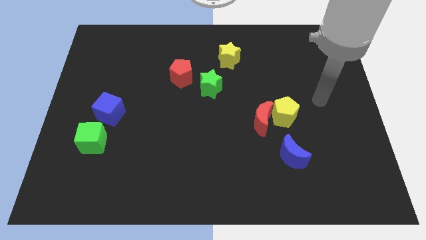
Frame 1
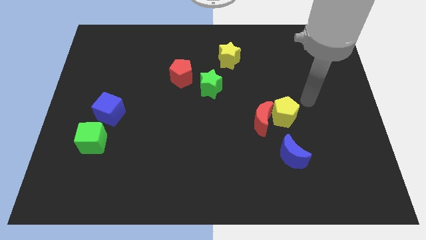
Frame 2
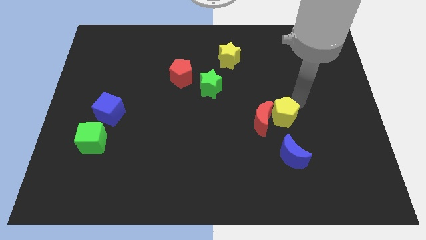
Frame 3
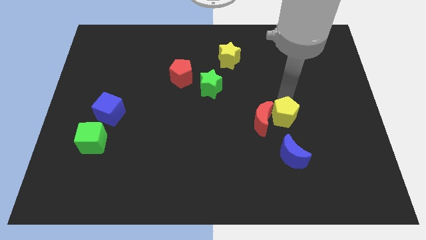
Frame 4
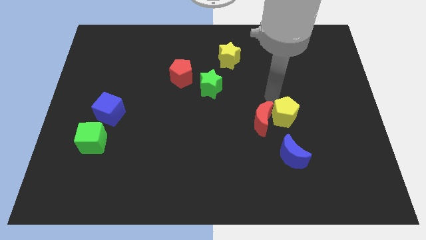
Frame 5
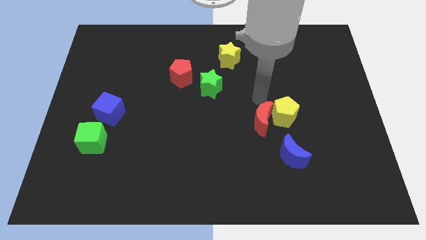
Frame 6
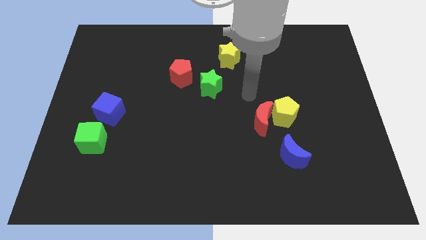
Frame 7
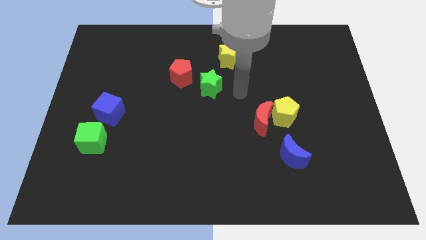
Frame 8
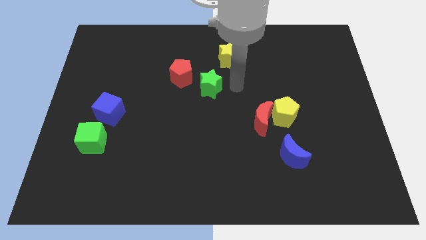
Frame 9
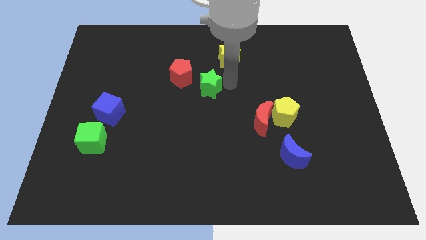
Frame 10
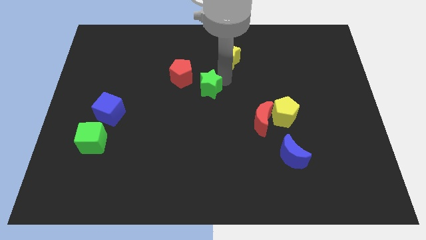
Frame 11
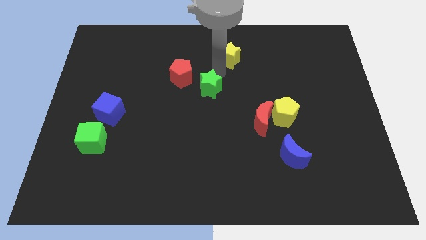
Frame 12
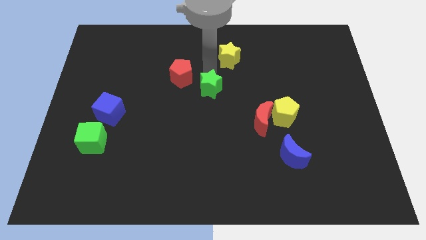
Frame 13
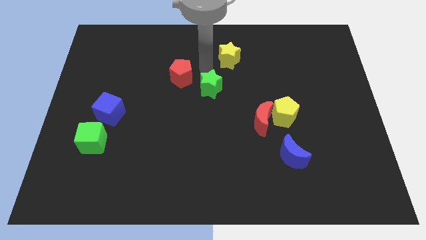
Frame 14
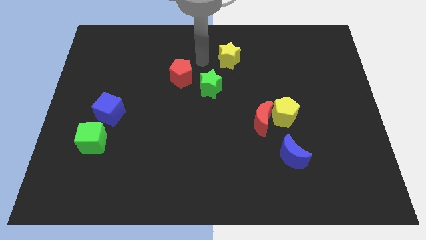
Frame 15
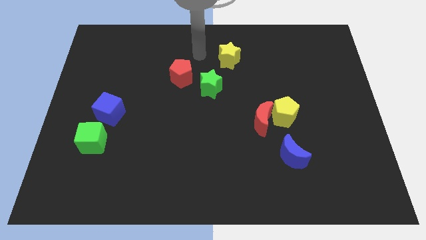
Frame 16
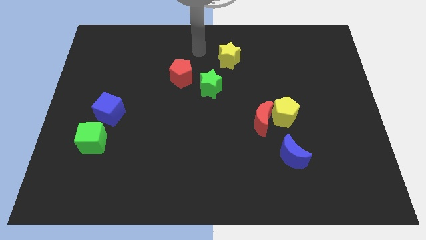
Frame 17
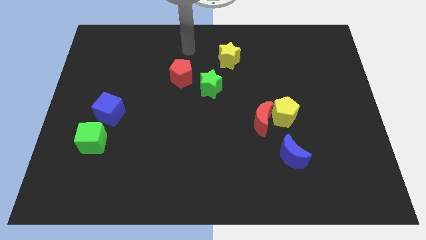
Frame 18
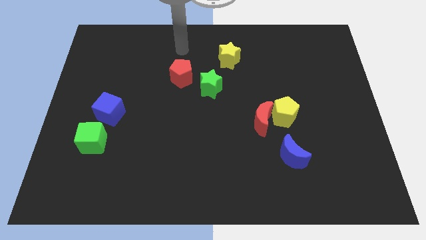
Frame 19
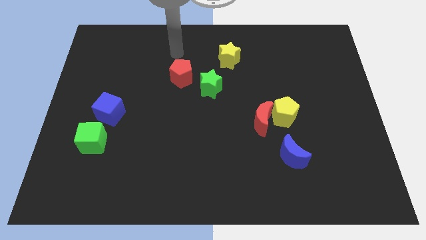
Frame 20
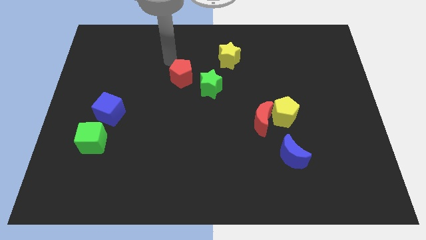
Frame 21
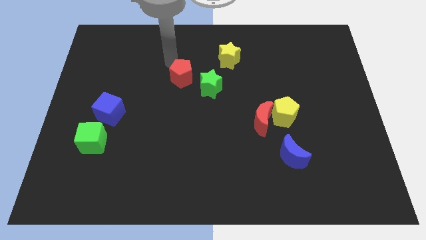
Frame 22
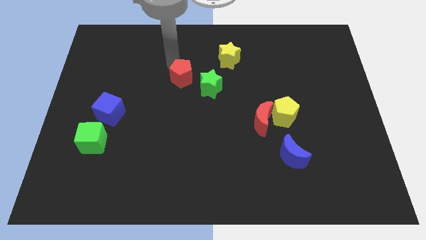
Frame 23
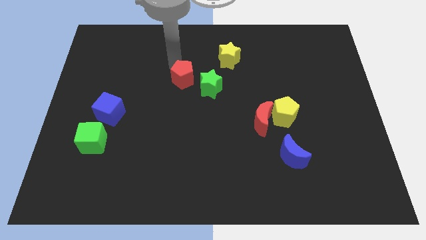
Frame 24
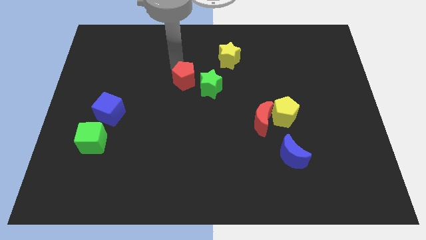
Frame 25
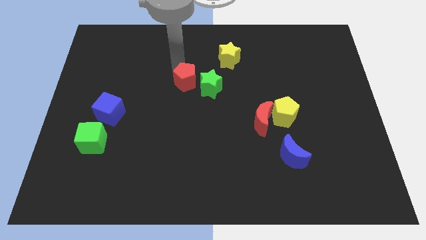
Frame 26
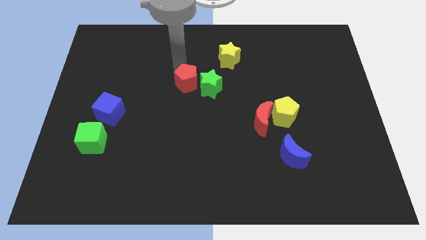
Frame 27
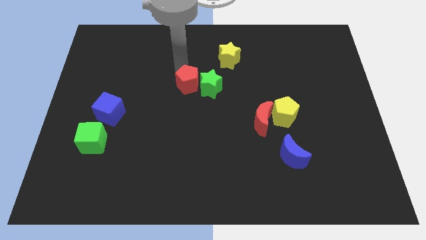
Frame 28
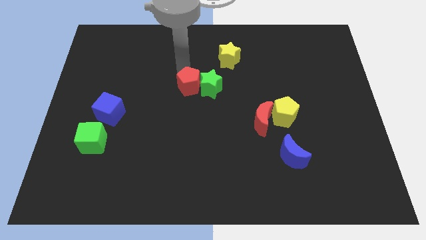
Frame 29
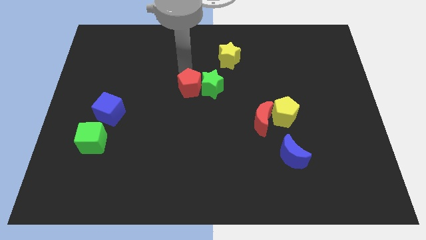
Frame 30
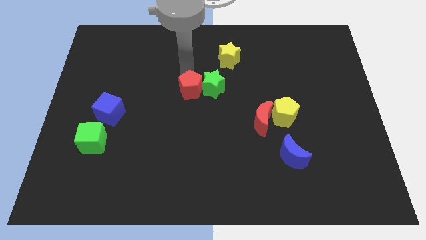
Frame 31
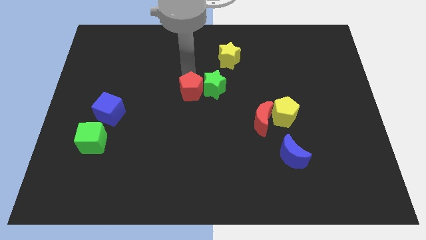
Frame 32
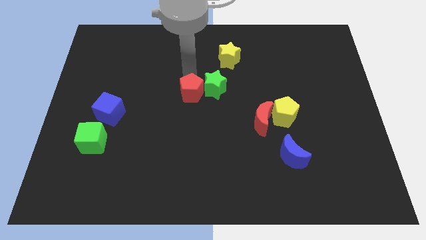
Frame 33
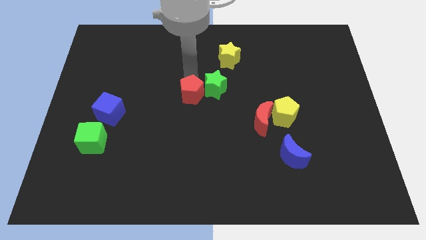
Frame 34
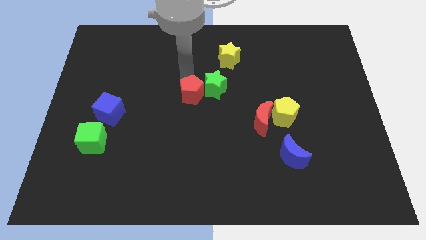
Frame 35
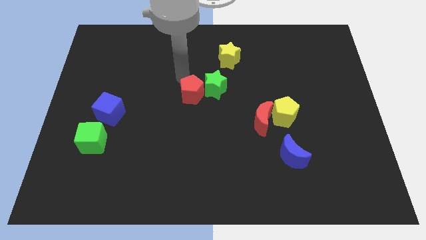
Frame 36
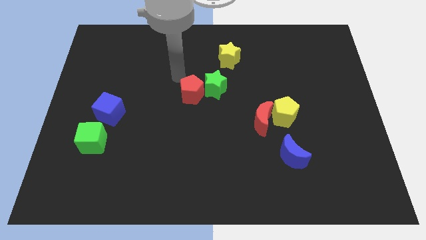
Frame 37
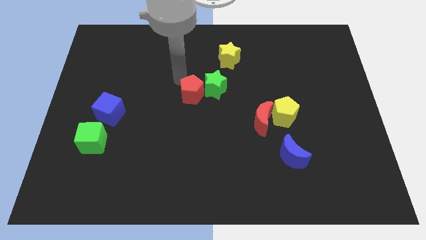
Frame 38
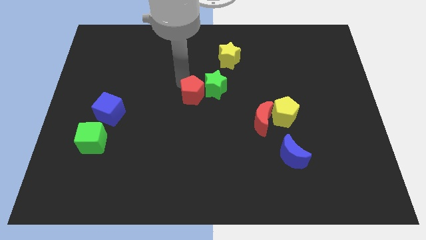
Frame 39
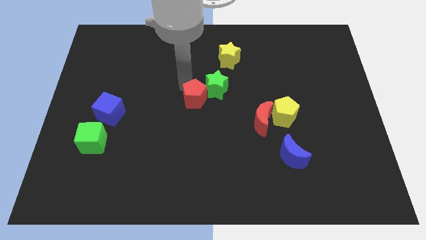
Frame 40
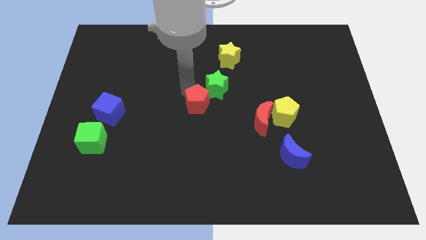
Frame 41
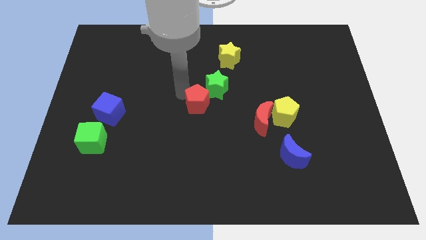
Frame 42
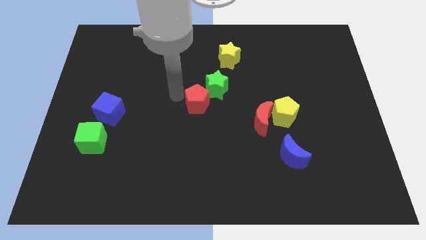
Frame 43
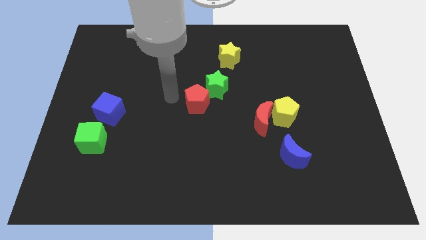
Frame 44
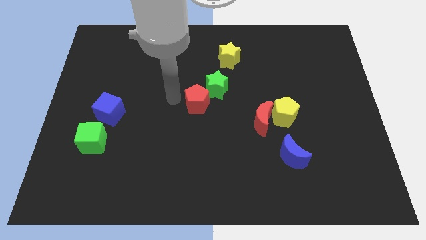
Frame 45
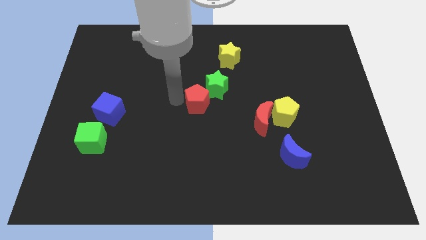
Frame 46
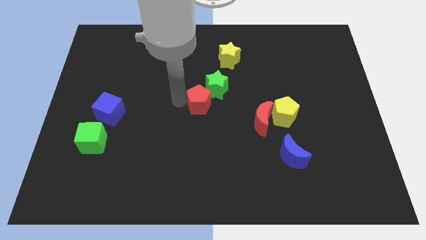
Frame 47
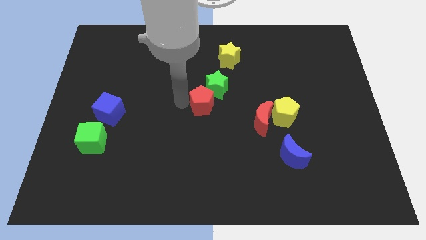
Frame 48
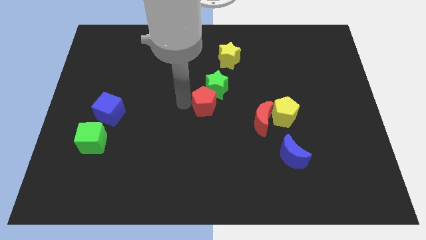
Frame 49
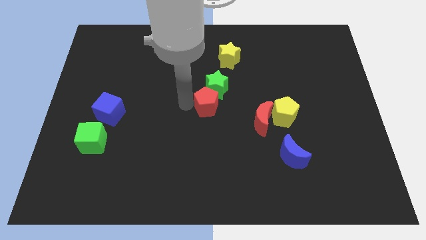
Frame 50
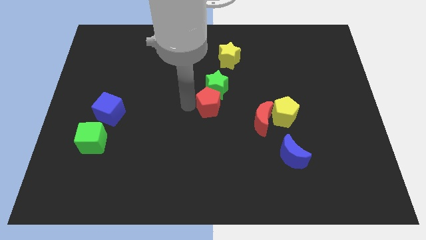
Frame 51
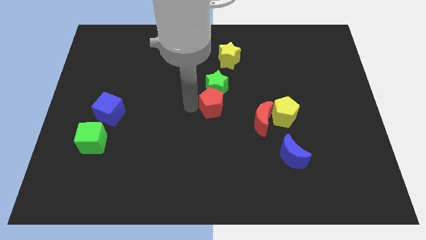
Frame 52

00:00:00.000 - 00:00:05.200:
move the red pentagon diagonally down and to the right of the green star

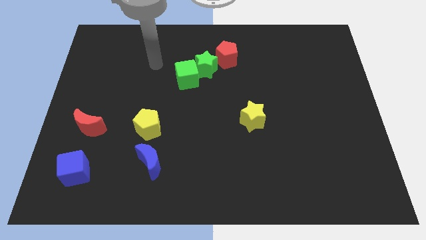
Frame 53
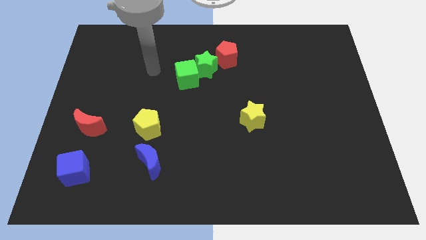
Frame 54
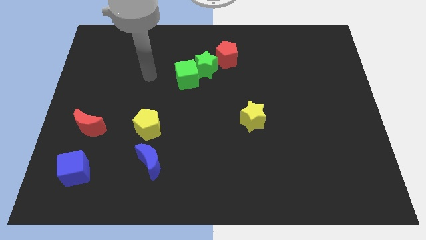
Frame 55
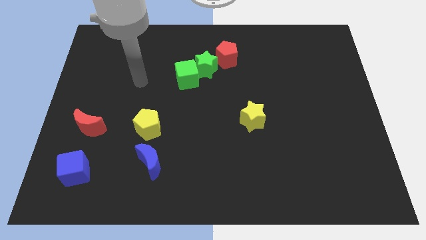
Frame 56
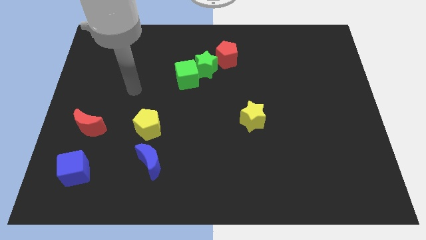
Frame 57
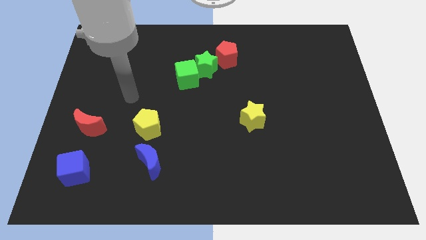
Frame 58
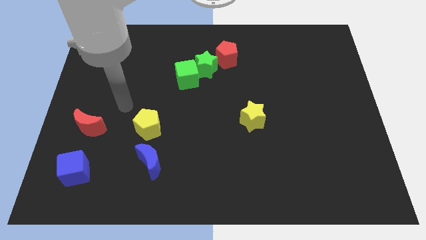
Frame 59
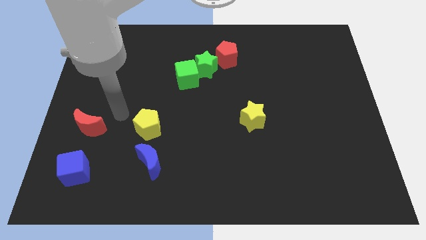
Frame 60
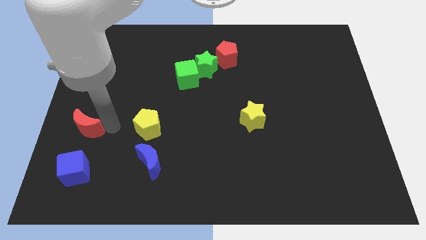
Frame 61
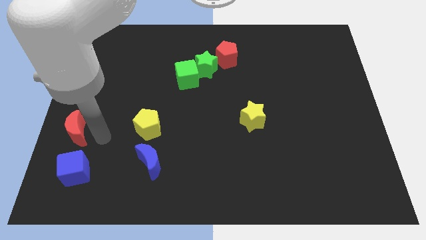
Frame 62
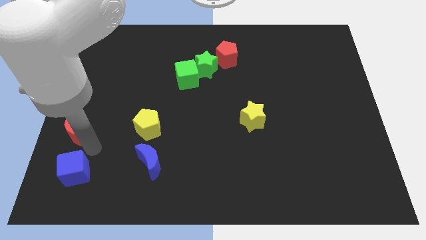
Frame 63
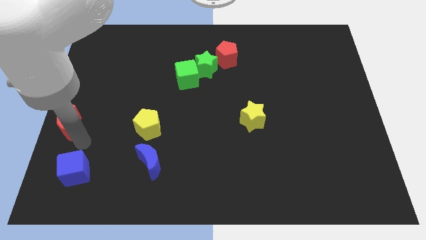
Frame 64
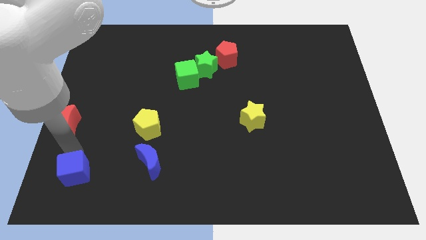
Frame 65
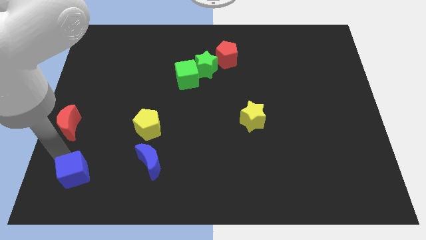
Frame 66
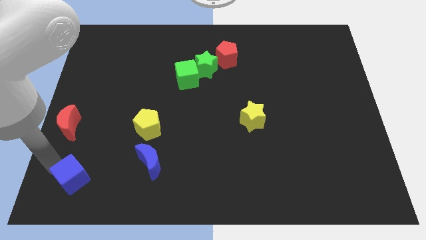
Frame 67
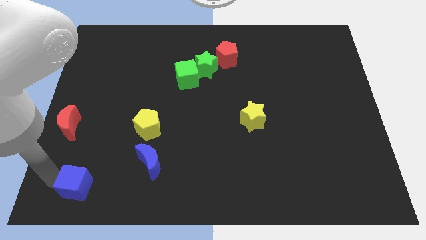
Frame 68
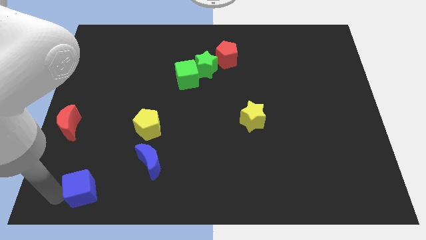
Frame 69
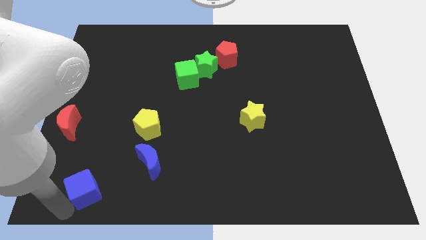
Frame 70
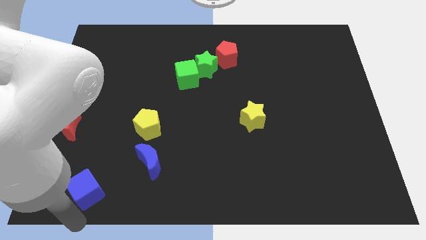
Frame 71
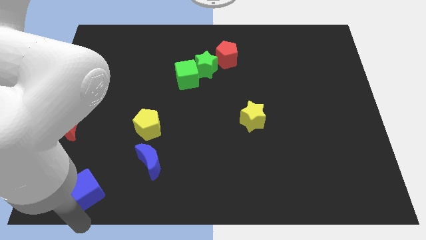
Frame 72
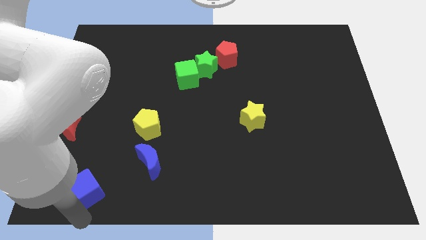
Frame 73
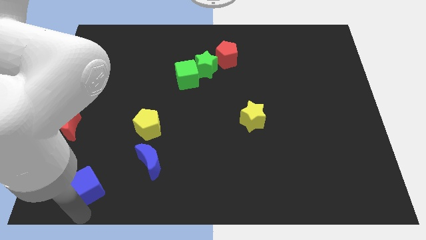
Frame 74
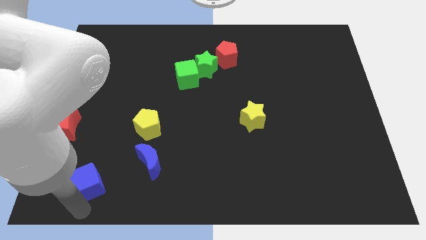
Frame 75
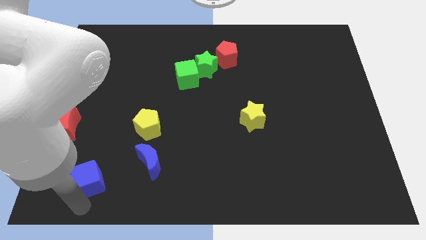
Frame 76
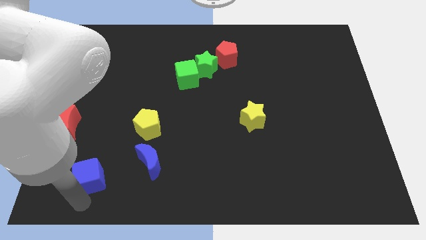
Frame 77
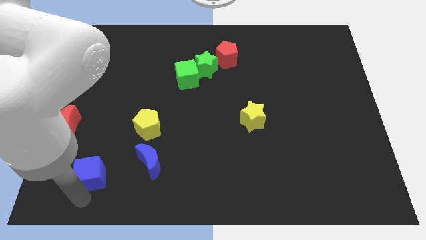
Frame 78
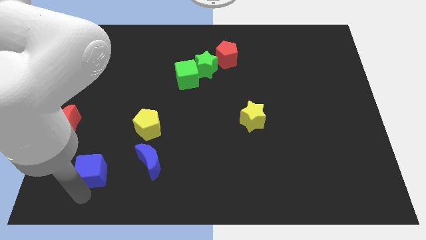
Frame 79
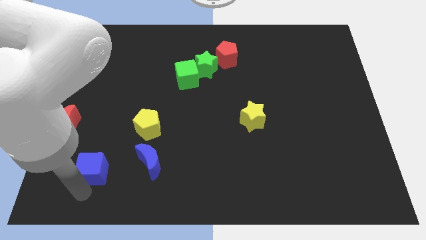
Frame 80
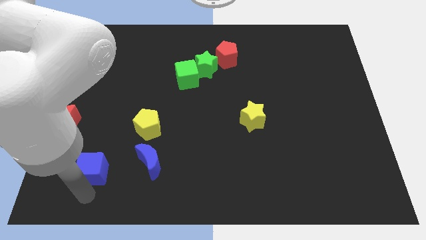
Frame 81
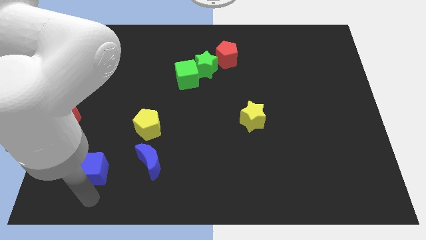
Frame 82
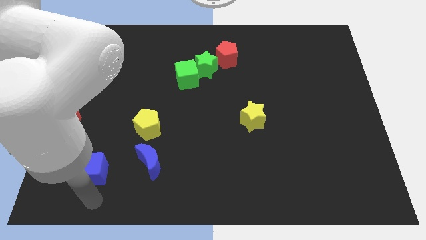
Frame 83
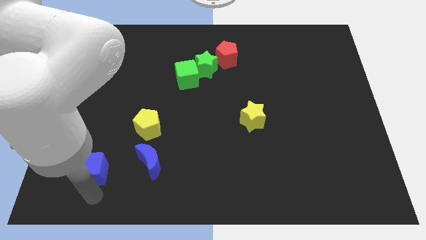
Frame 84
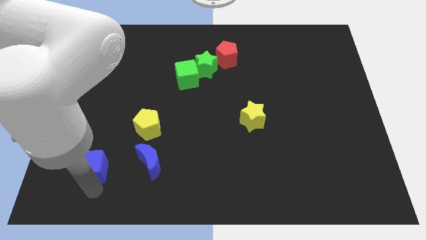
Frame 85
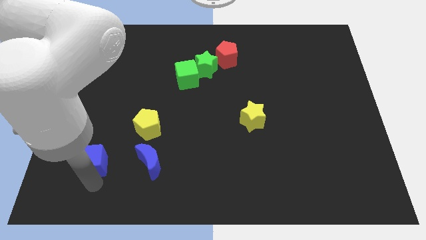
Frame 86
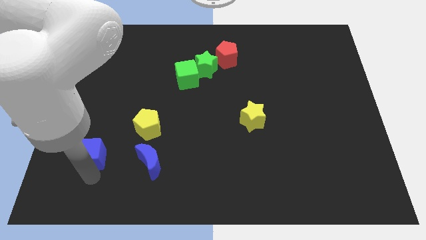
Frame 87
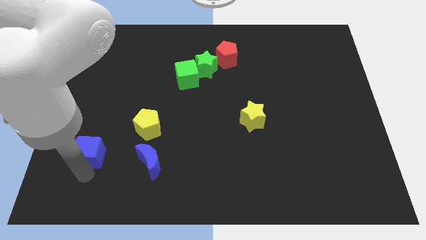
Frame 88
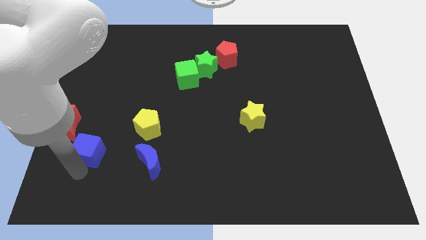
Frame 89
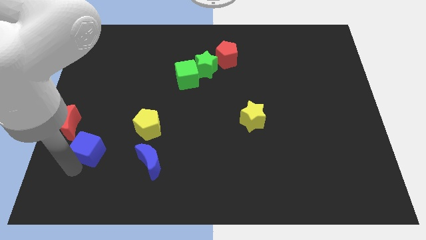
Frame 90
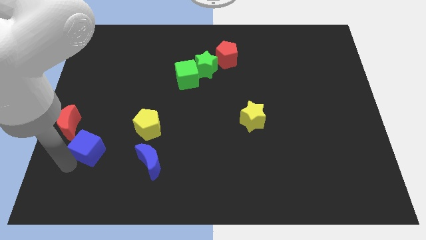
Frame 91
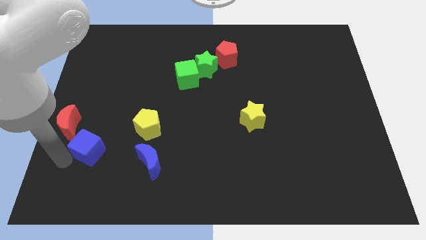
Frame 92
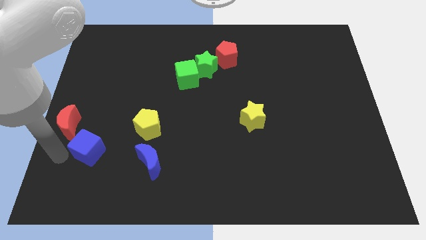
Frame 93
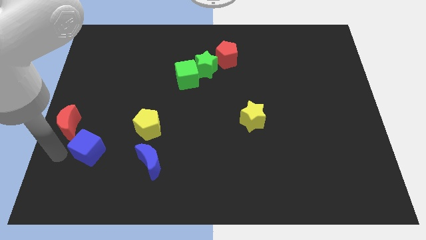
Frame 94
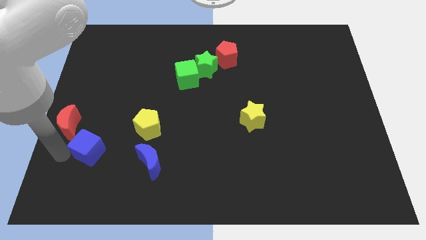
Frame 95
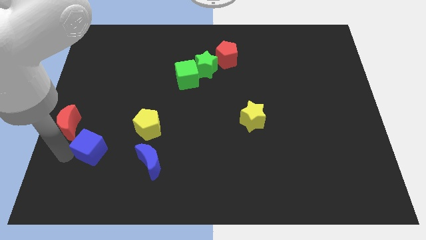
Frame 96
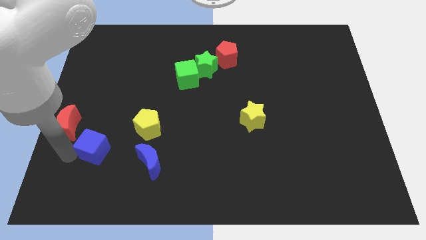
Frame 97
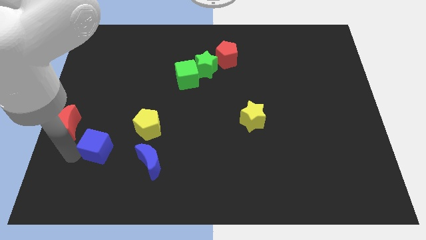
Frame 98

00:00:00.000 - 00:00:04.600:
move the blue cube diagonally down and to the left of the yellow pentagon
